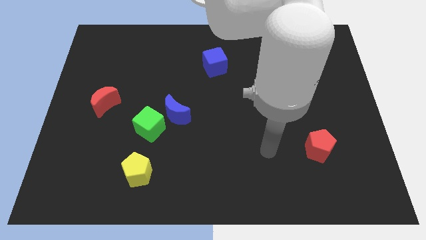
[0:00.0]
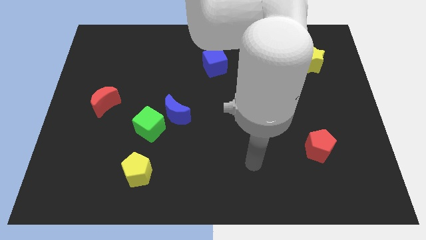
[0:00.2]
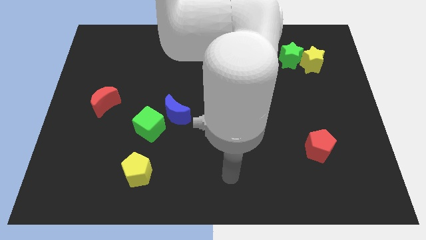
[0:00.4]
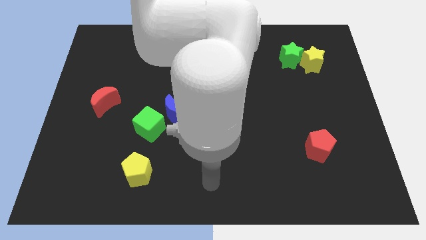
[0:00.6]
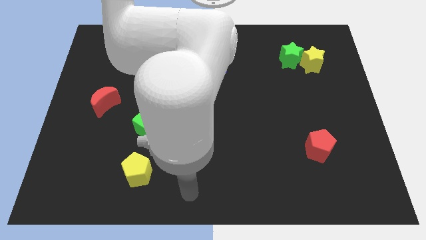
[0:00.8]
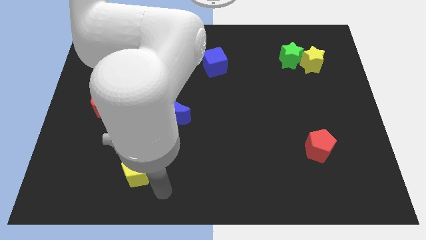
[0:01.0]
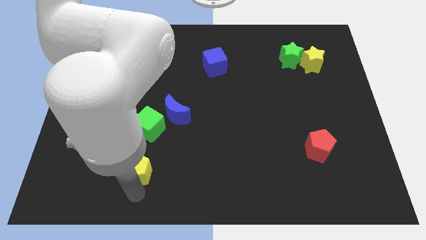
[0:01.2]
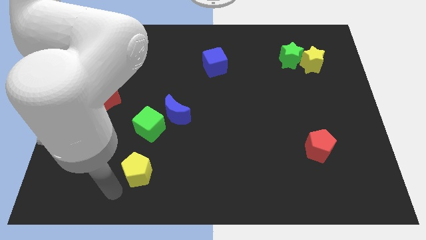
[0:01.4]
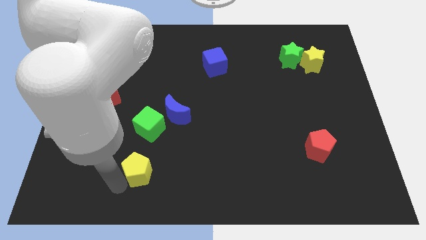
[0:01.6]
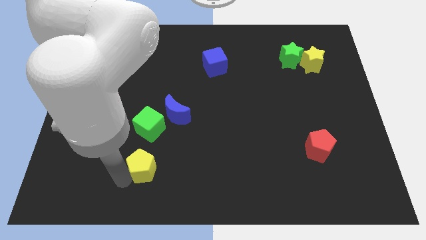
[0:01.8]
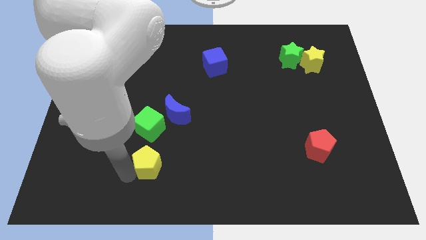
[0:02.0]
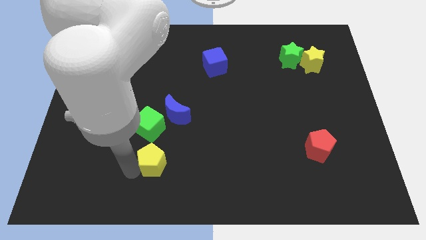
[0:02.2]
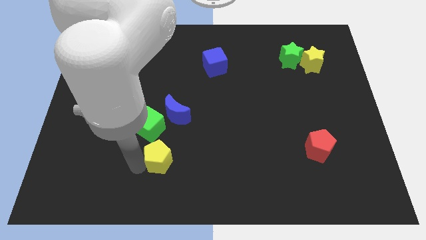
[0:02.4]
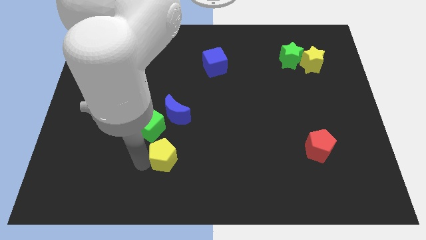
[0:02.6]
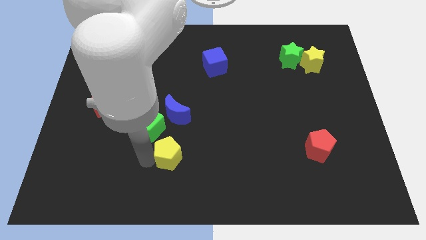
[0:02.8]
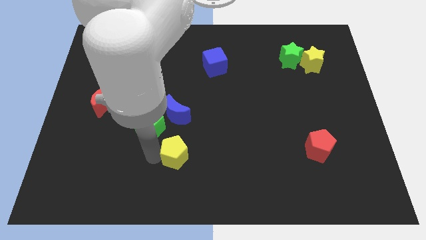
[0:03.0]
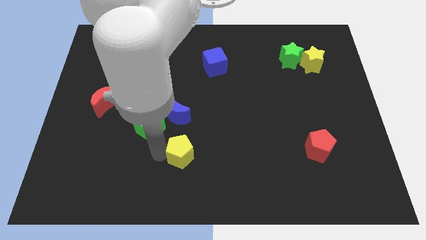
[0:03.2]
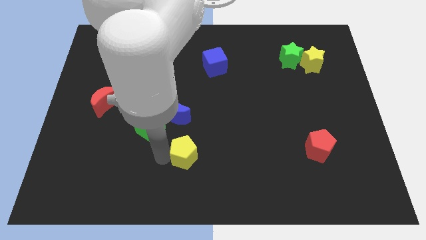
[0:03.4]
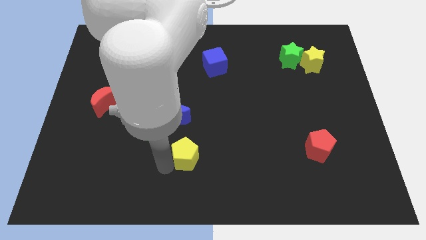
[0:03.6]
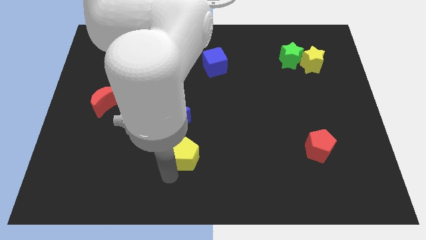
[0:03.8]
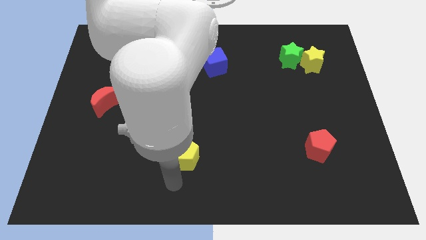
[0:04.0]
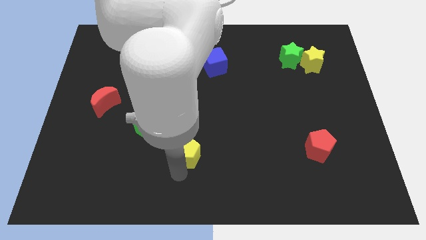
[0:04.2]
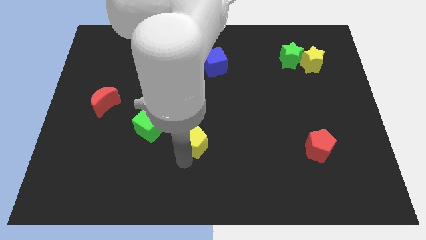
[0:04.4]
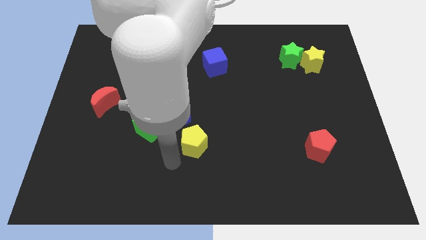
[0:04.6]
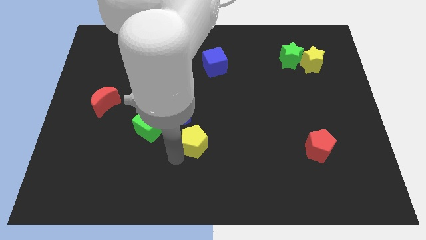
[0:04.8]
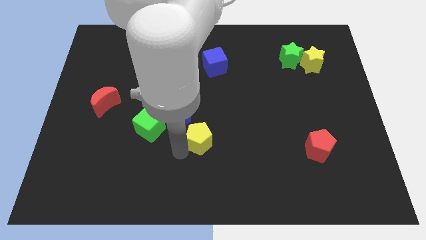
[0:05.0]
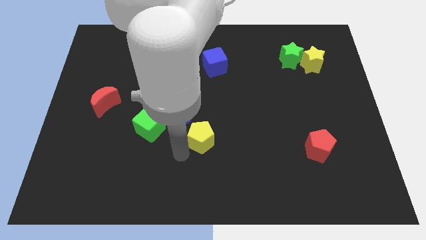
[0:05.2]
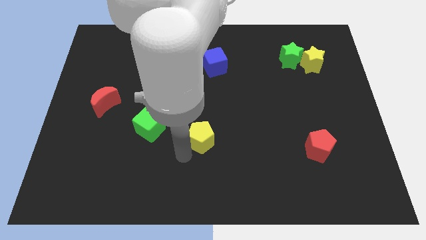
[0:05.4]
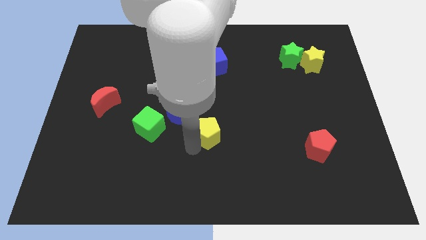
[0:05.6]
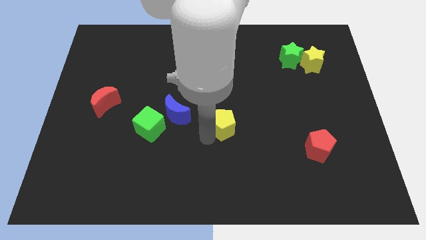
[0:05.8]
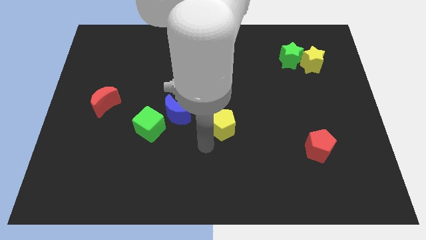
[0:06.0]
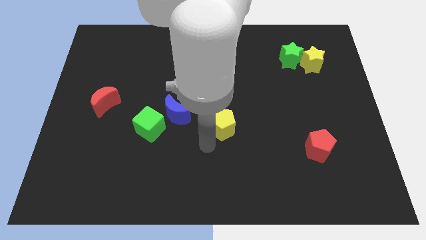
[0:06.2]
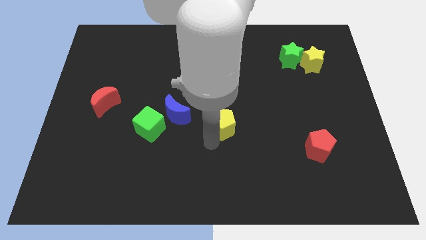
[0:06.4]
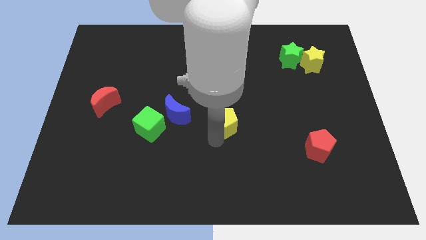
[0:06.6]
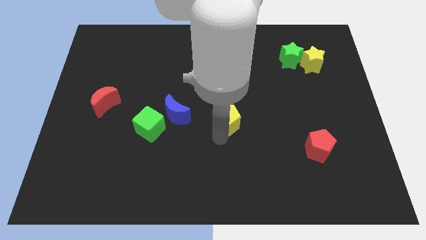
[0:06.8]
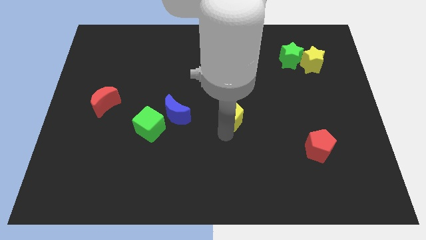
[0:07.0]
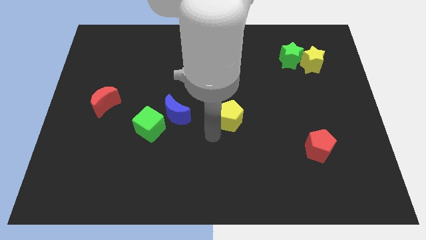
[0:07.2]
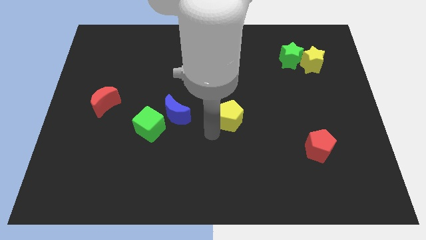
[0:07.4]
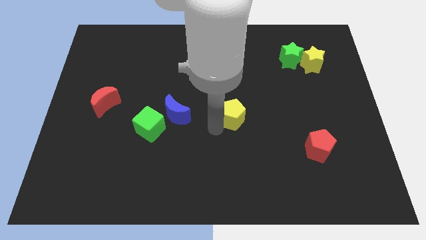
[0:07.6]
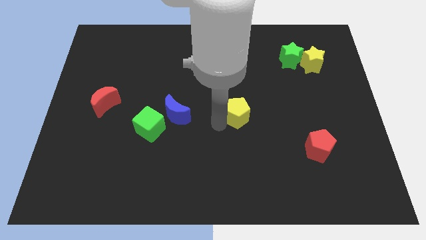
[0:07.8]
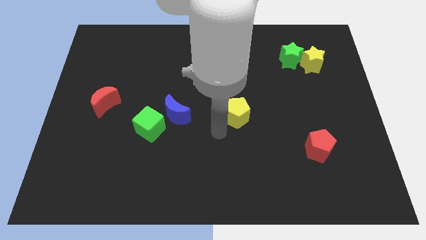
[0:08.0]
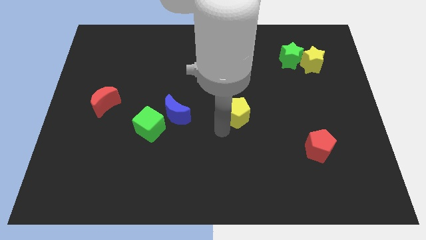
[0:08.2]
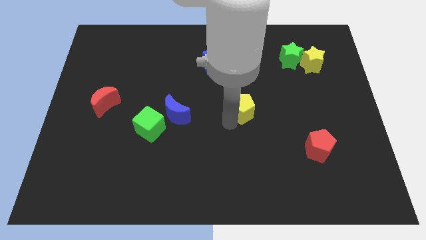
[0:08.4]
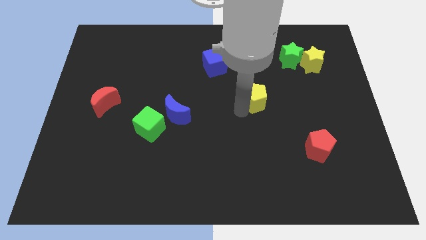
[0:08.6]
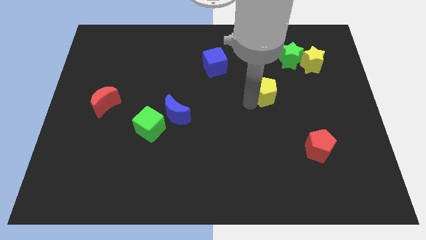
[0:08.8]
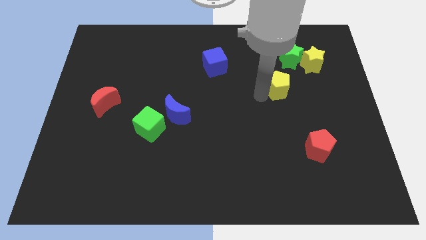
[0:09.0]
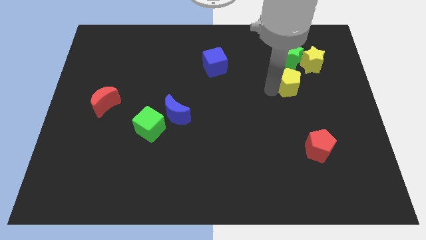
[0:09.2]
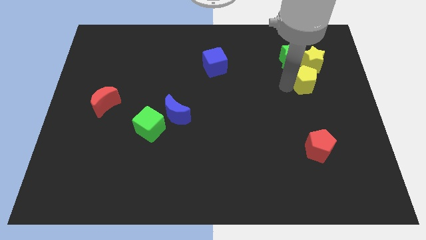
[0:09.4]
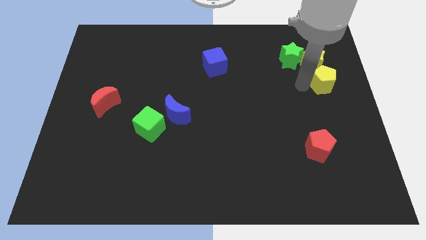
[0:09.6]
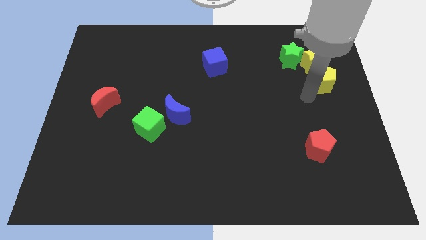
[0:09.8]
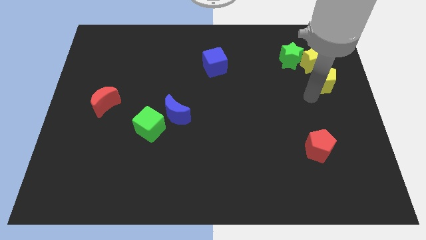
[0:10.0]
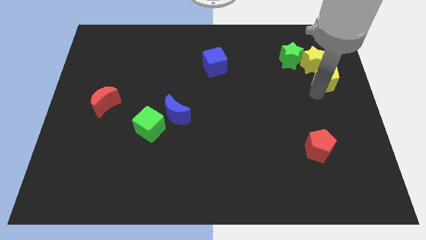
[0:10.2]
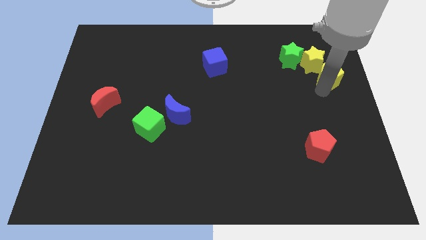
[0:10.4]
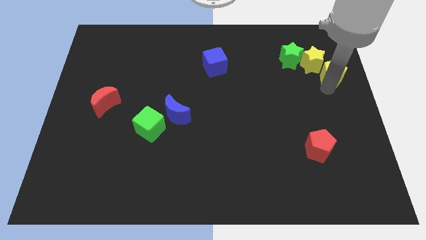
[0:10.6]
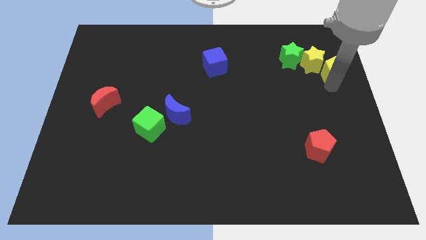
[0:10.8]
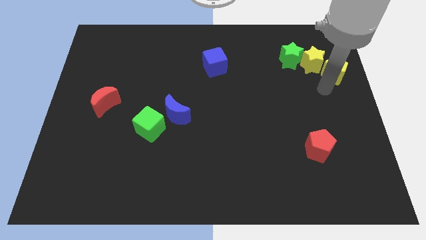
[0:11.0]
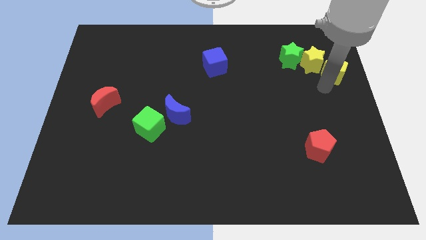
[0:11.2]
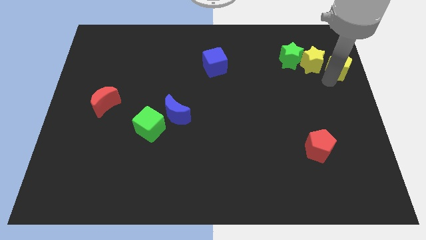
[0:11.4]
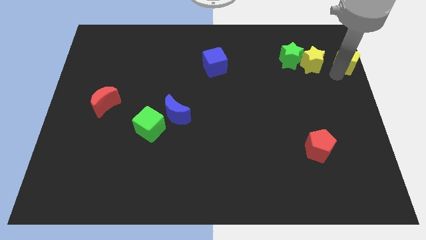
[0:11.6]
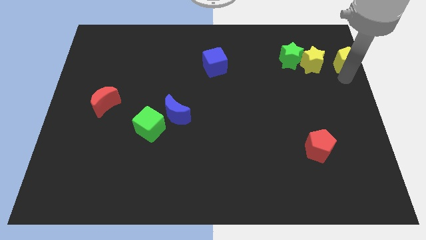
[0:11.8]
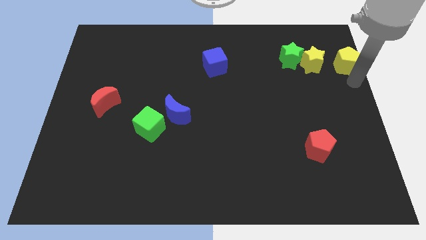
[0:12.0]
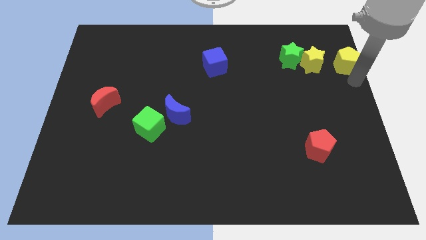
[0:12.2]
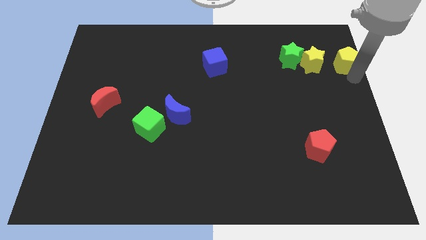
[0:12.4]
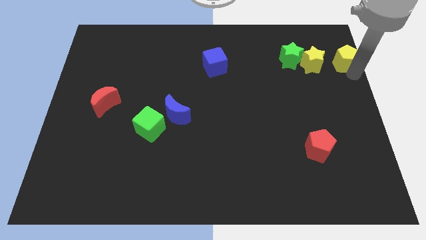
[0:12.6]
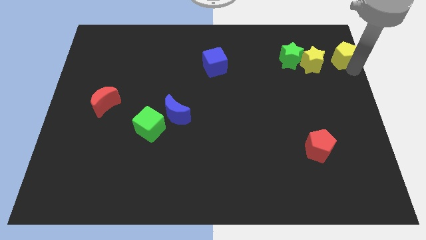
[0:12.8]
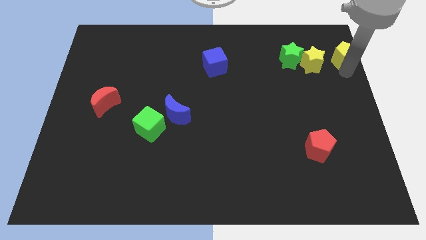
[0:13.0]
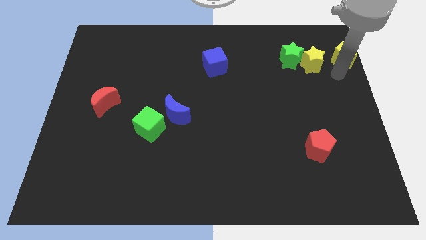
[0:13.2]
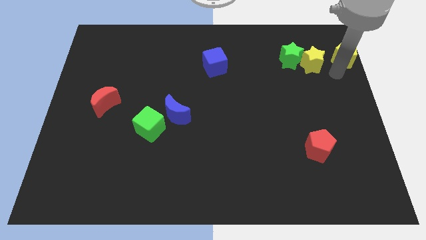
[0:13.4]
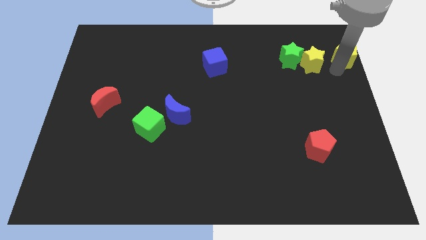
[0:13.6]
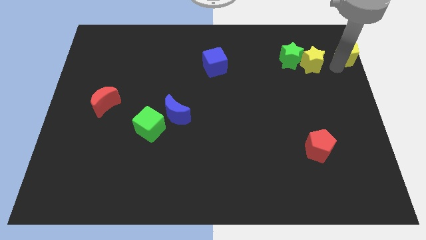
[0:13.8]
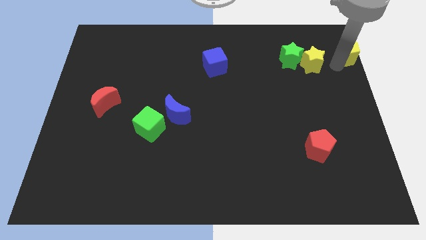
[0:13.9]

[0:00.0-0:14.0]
move the yellow pentagon to the top right

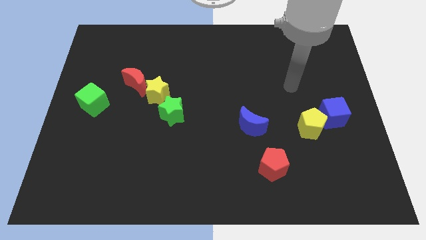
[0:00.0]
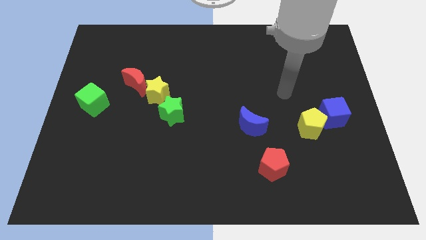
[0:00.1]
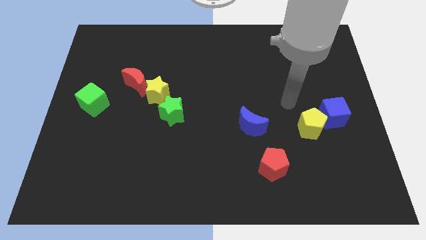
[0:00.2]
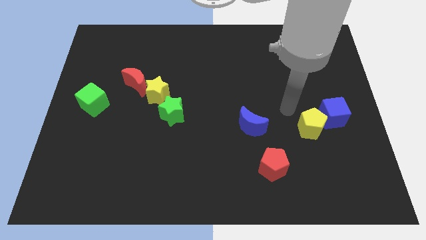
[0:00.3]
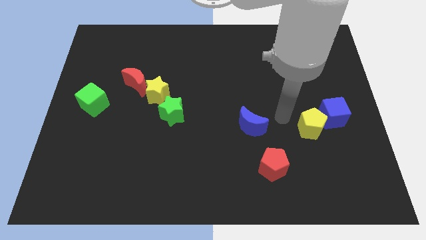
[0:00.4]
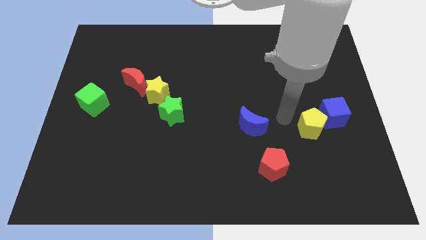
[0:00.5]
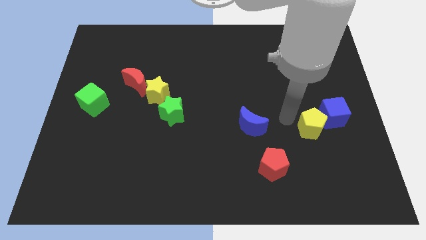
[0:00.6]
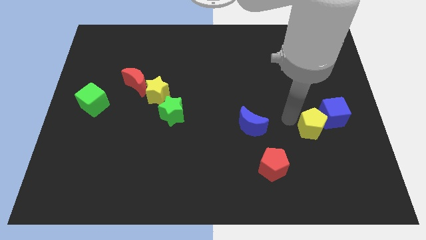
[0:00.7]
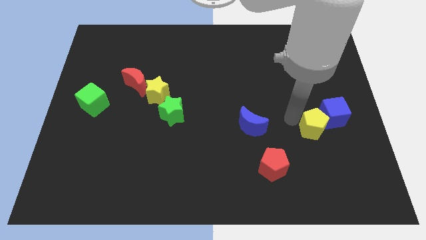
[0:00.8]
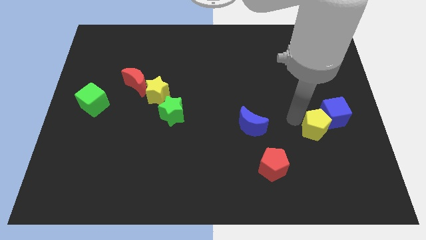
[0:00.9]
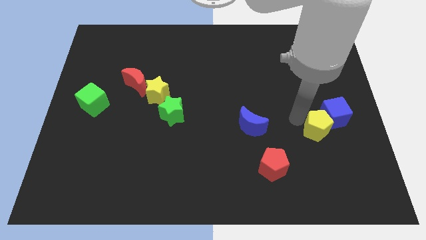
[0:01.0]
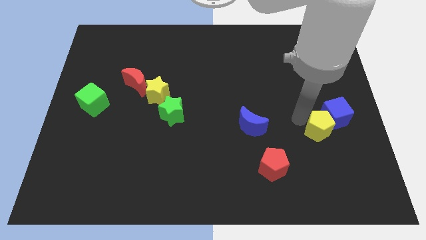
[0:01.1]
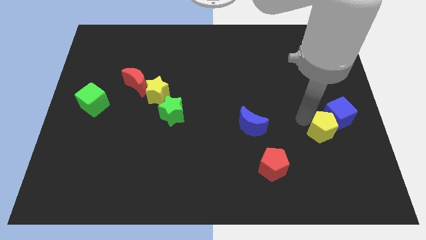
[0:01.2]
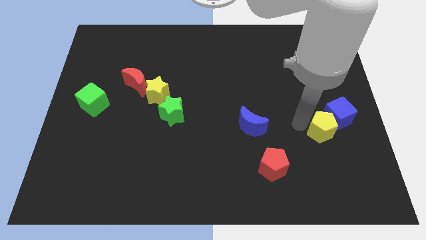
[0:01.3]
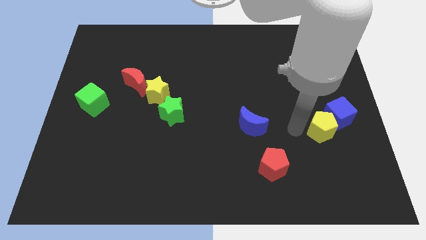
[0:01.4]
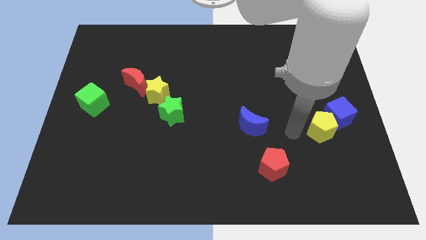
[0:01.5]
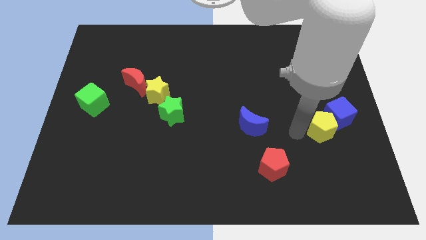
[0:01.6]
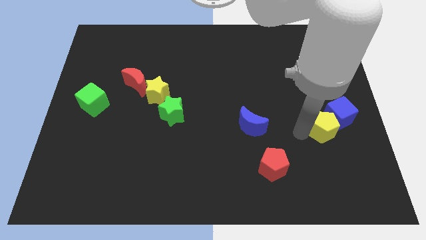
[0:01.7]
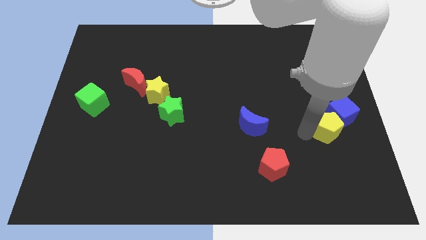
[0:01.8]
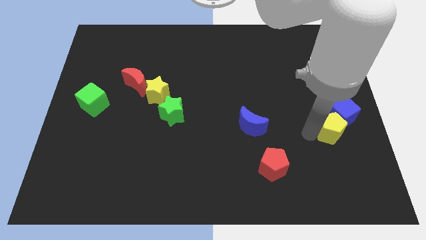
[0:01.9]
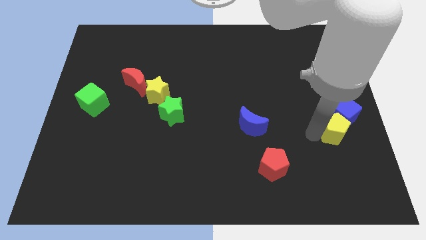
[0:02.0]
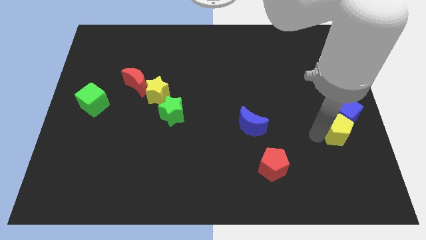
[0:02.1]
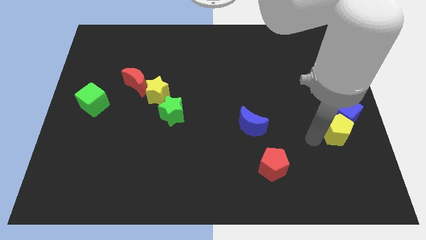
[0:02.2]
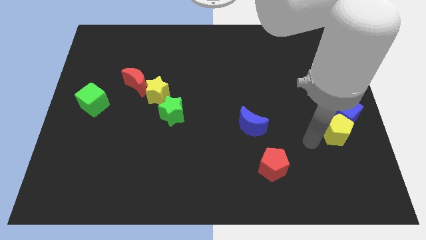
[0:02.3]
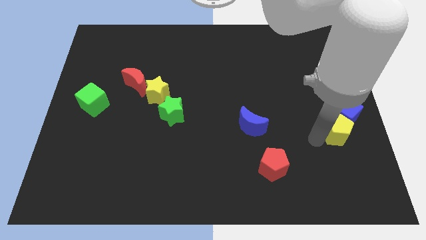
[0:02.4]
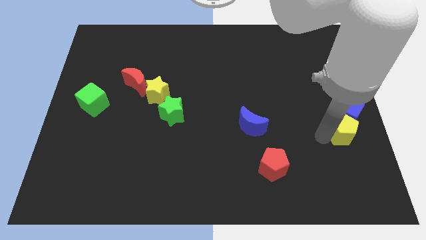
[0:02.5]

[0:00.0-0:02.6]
put the yellow pentagon to the right side of the board
